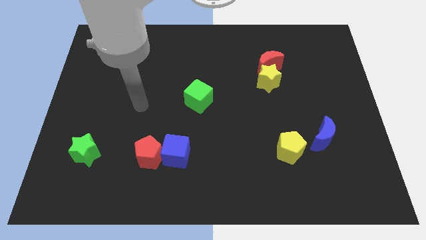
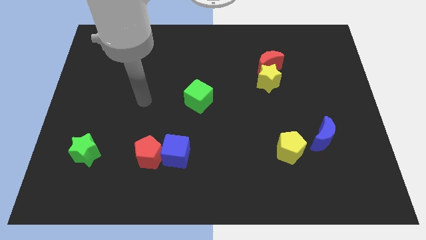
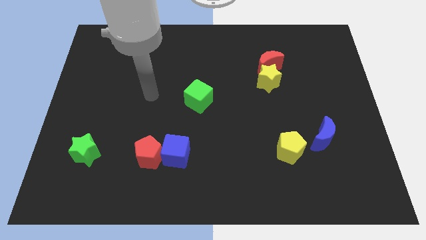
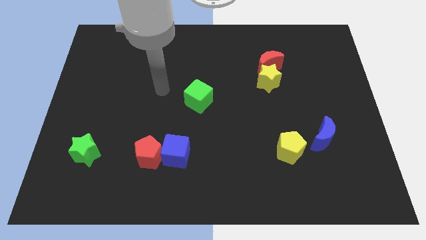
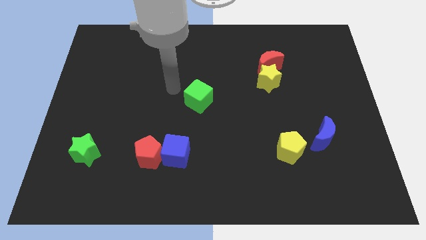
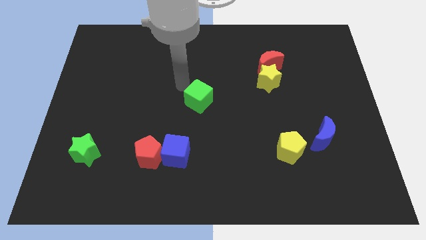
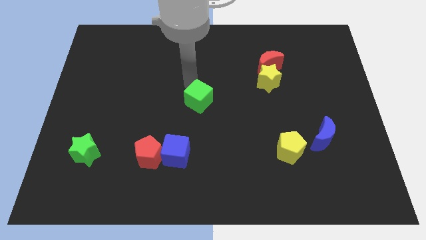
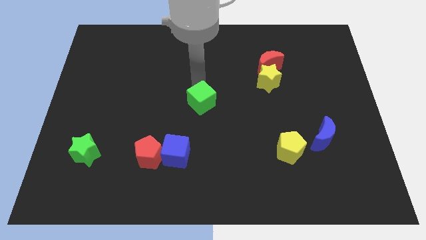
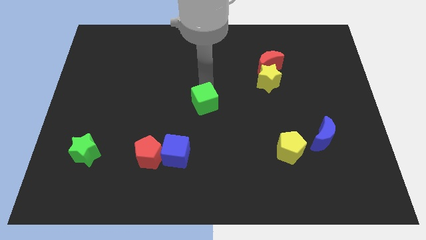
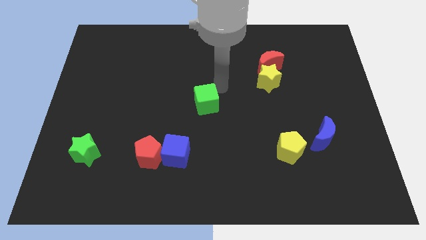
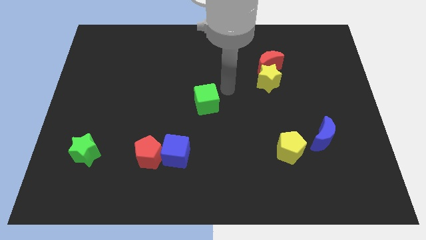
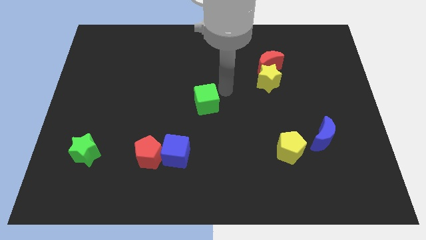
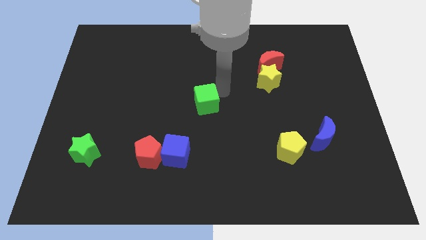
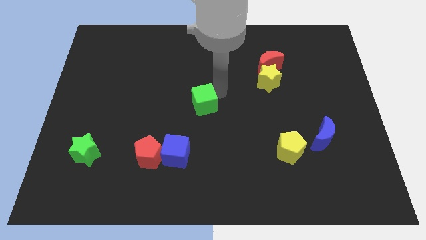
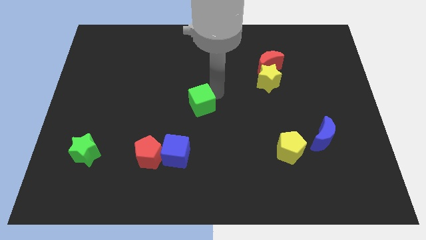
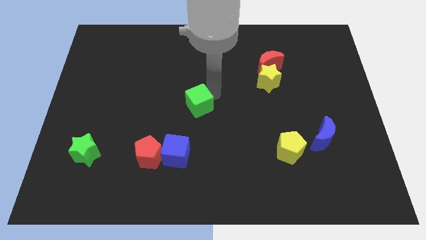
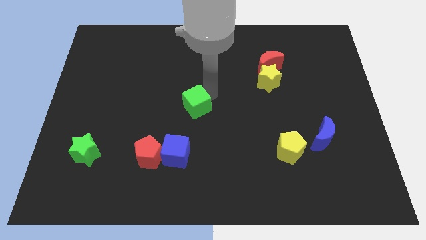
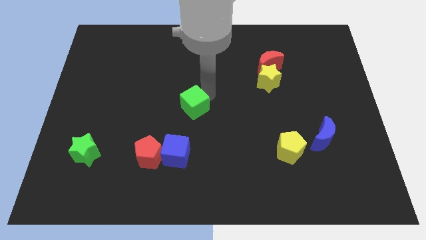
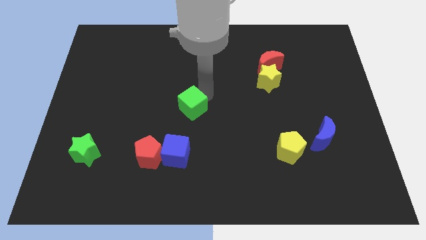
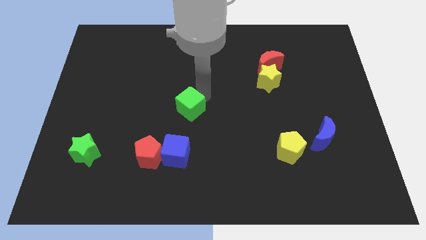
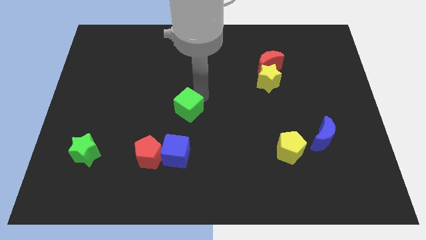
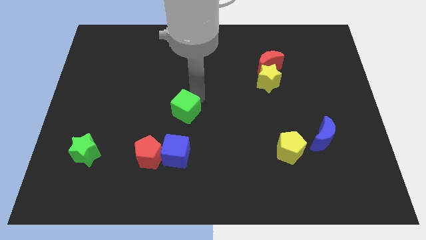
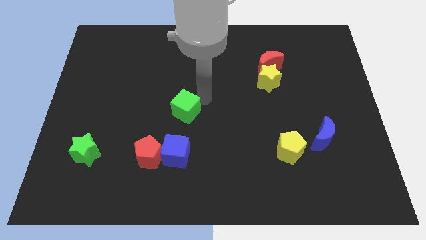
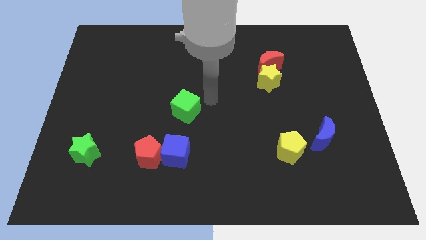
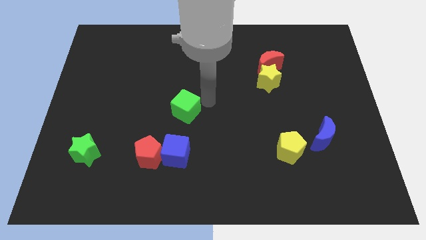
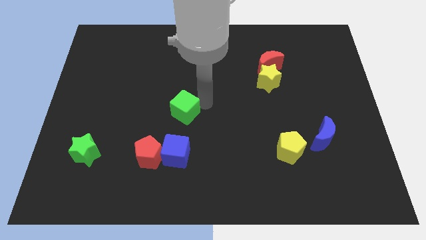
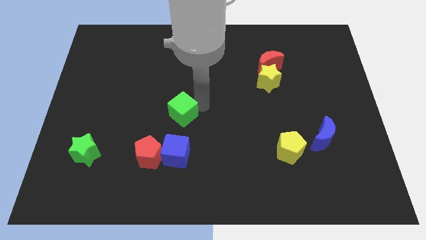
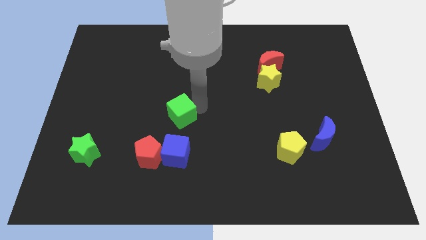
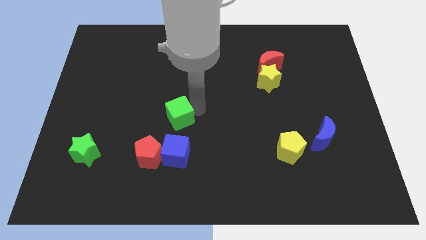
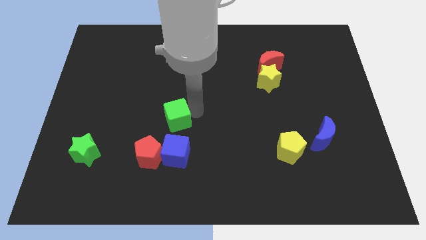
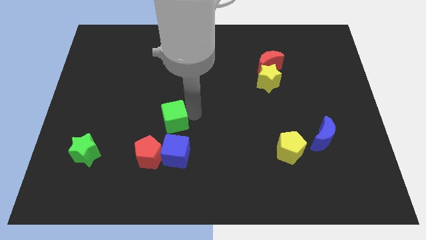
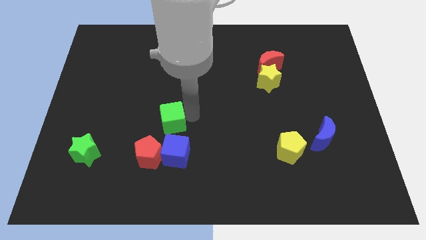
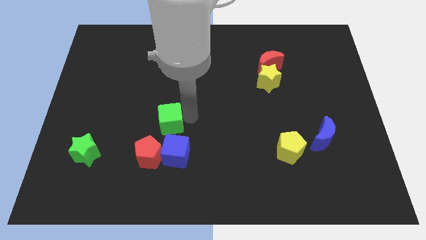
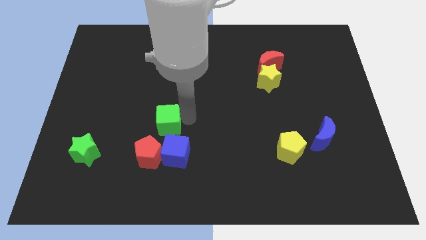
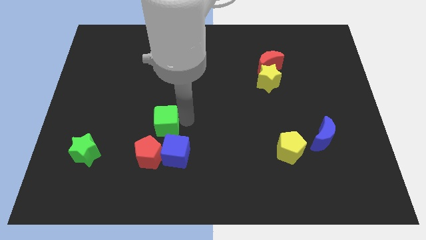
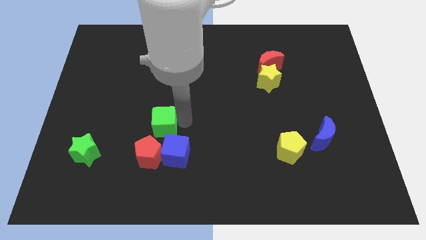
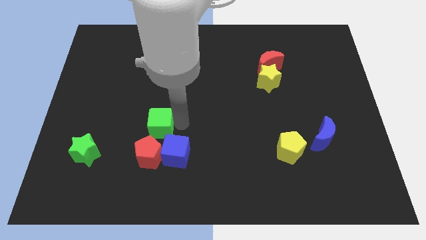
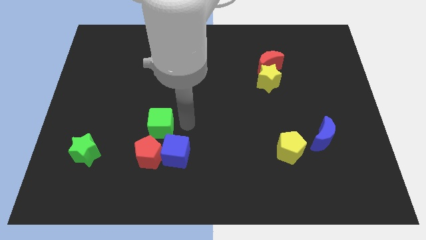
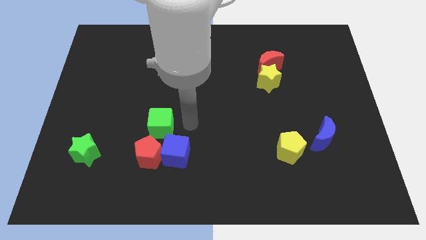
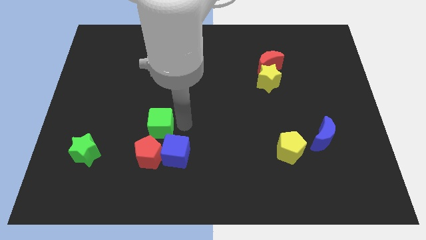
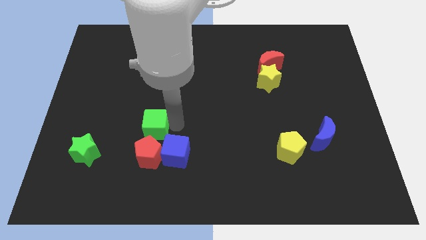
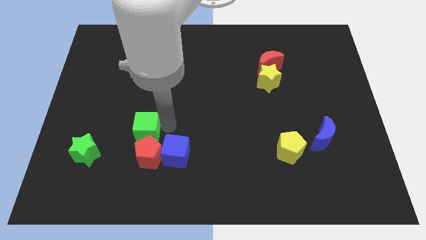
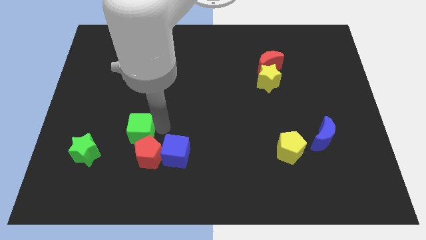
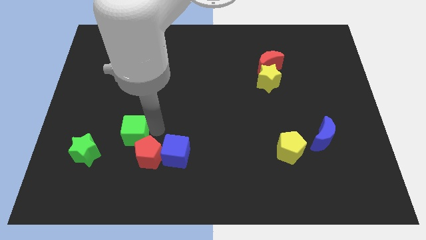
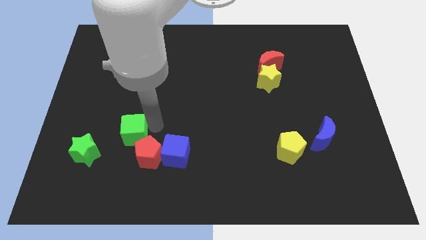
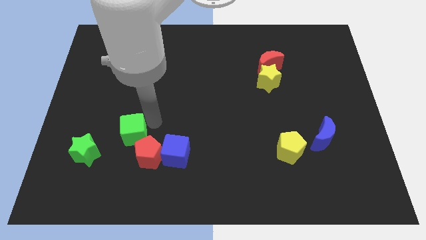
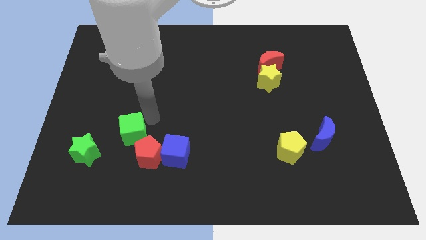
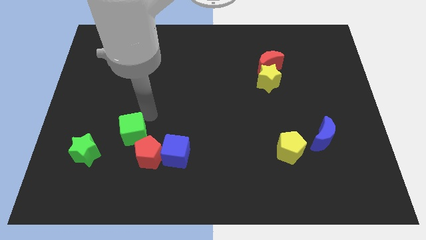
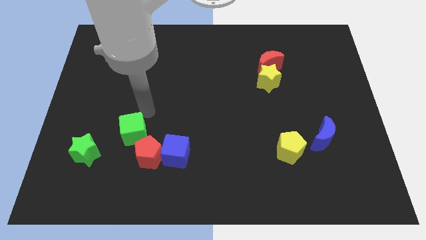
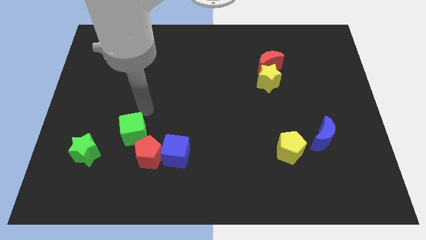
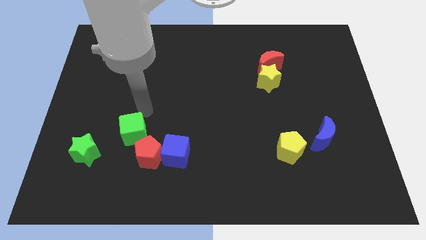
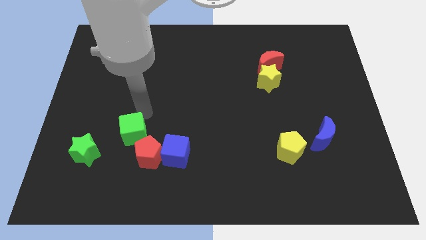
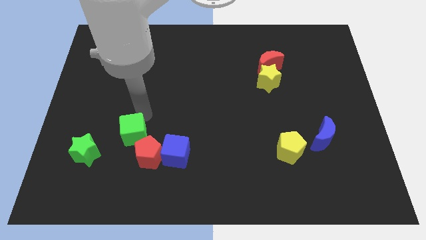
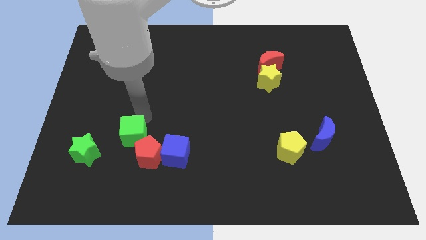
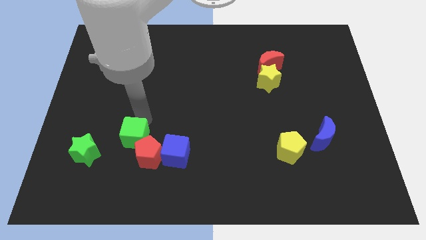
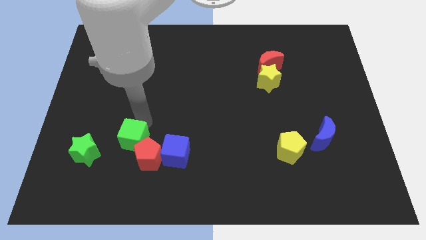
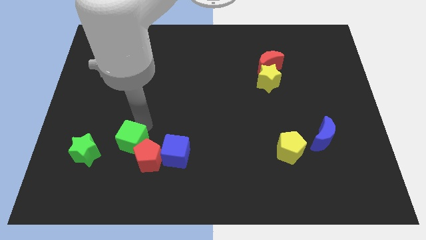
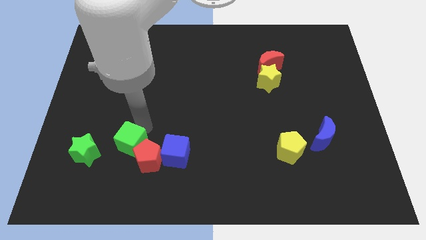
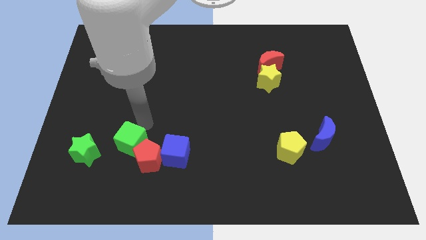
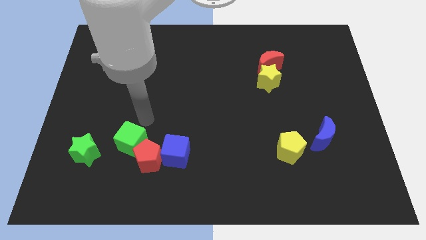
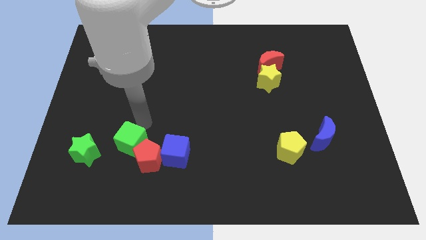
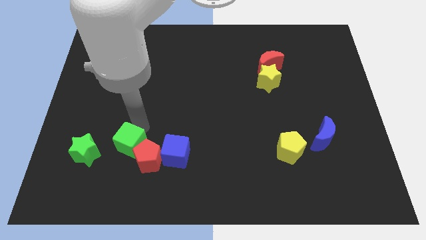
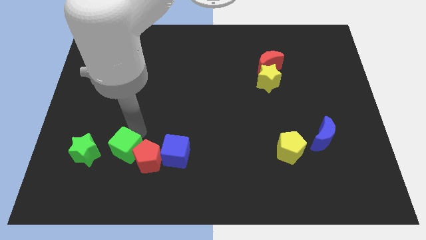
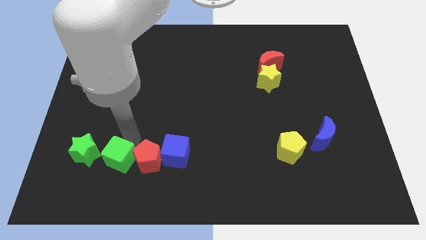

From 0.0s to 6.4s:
push the green cube to the bottom left of the red pentagon

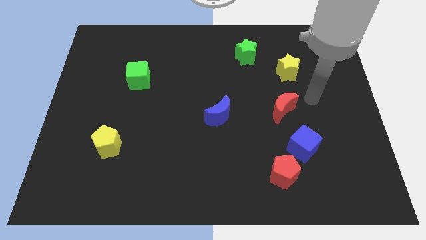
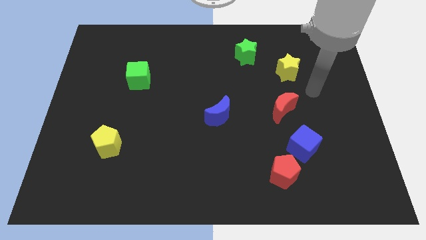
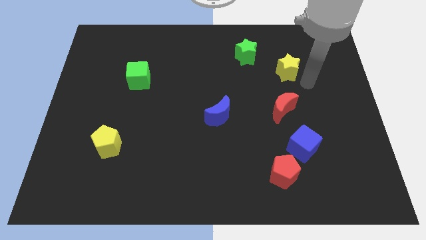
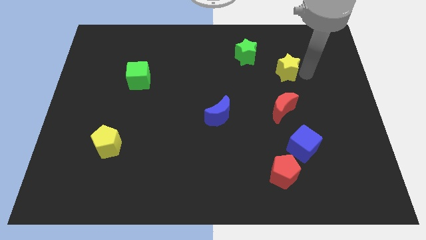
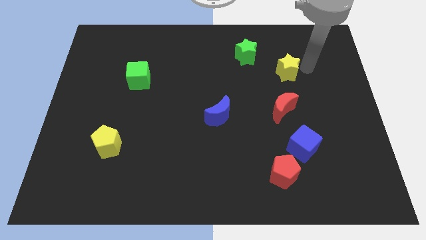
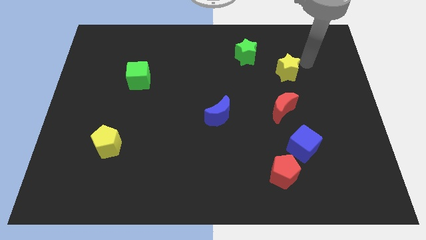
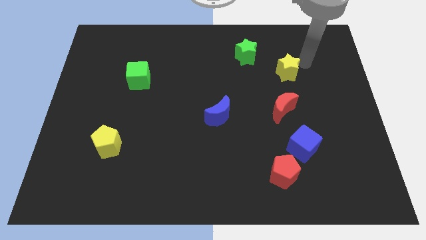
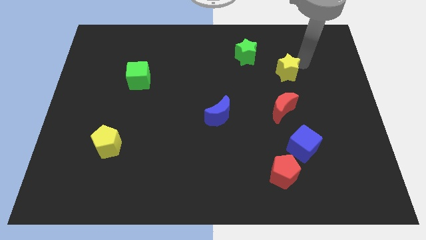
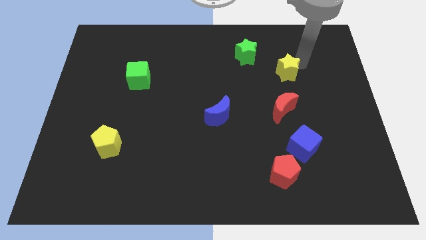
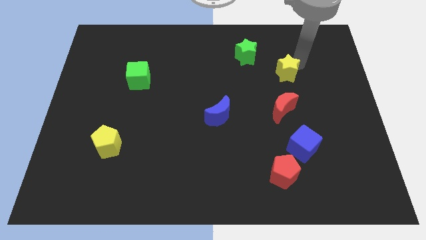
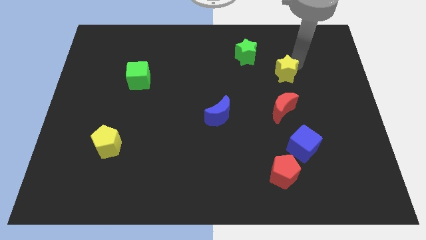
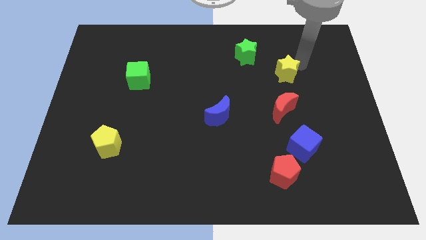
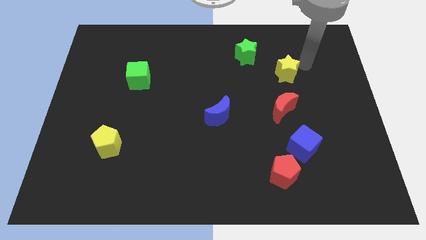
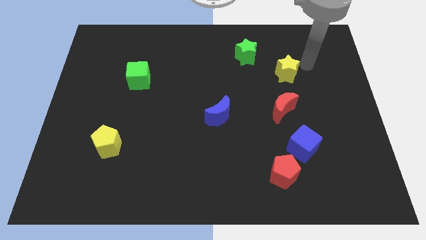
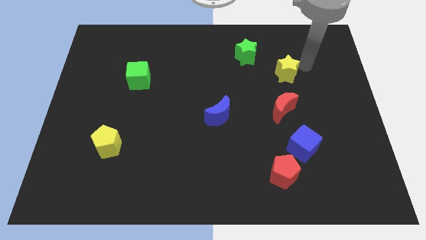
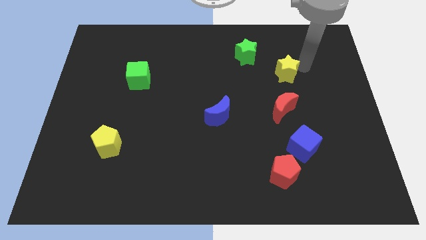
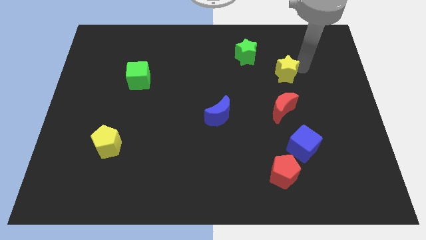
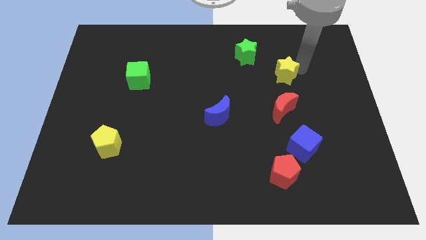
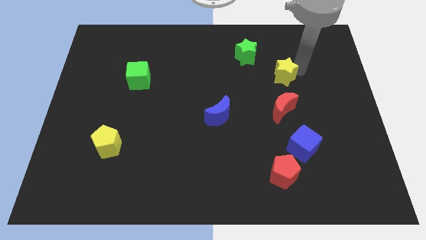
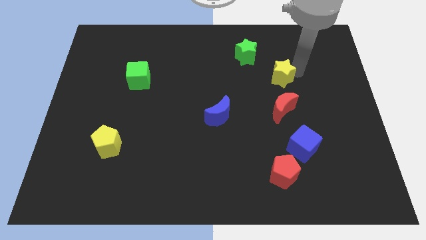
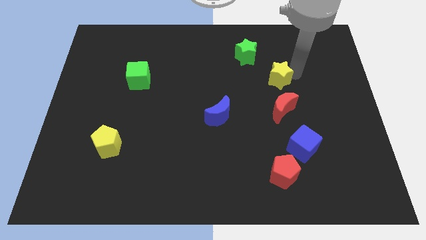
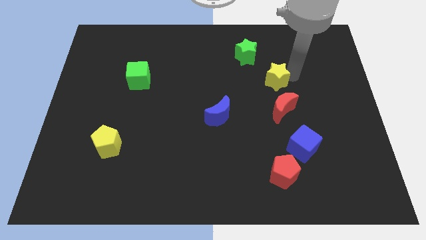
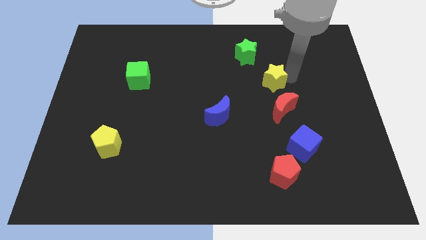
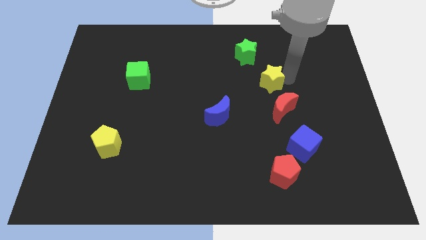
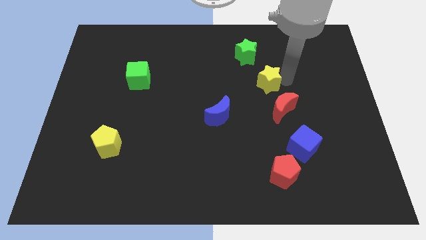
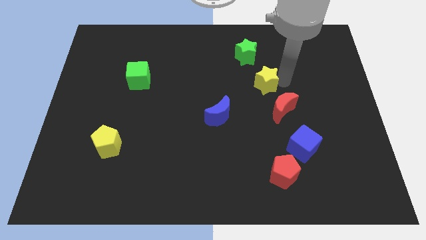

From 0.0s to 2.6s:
push the yellow star below the green star
